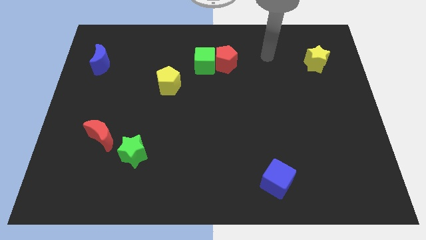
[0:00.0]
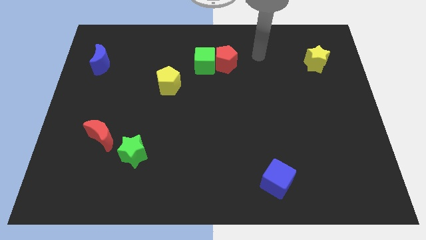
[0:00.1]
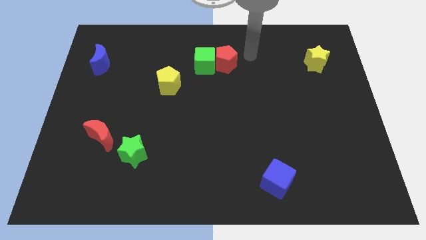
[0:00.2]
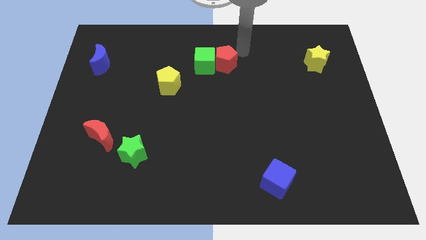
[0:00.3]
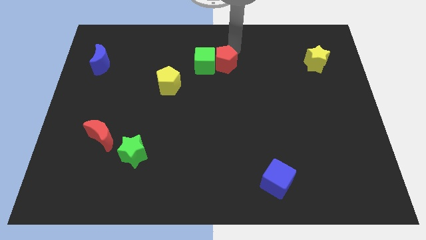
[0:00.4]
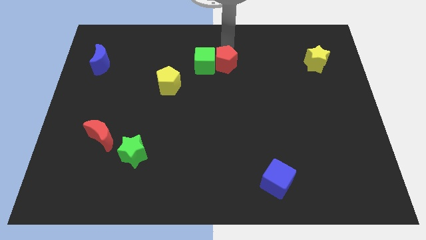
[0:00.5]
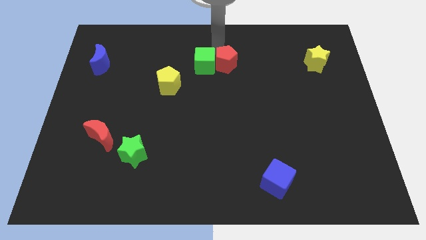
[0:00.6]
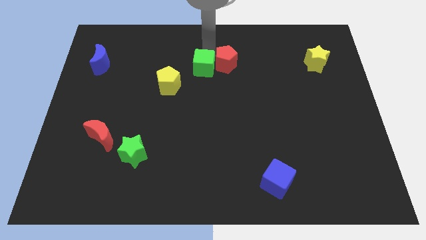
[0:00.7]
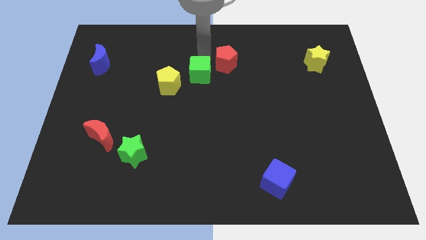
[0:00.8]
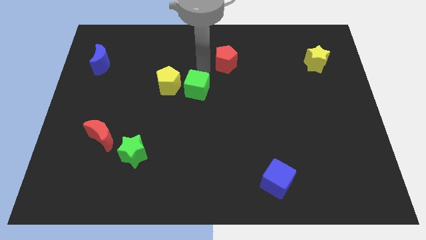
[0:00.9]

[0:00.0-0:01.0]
separate the red pentagon from the green cube

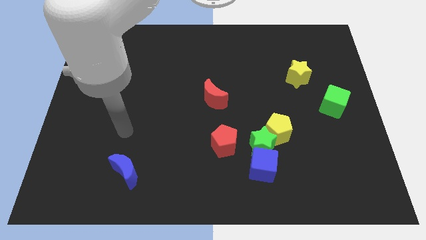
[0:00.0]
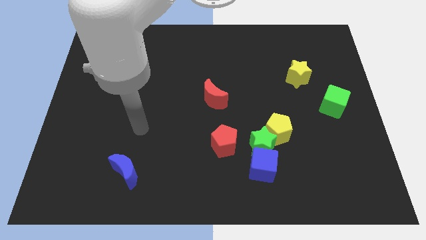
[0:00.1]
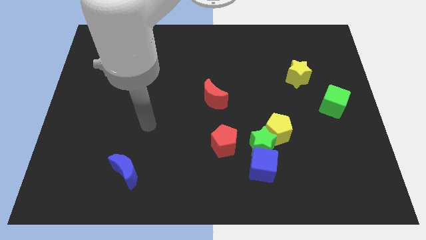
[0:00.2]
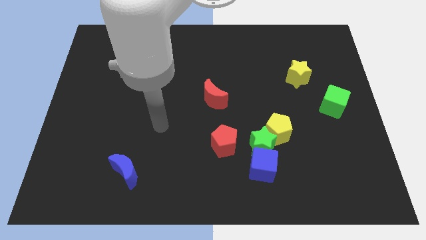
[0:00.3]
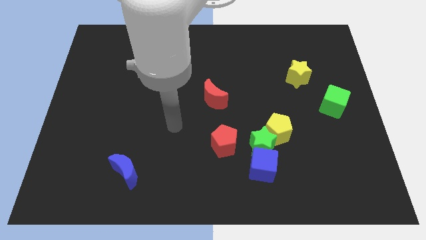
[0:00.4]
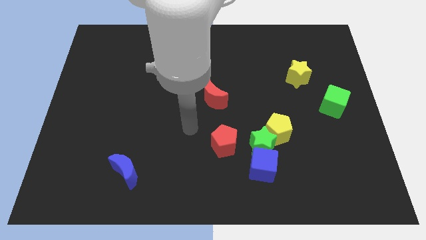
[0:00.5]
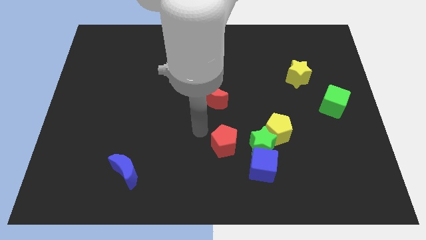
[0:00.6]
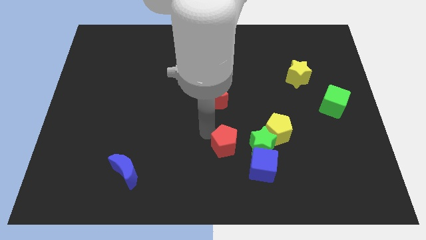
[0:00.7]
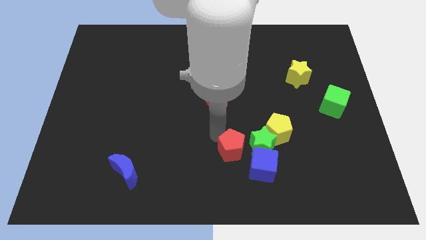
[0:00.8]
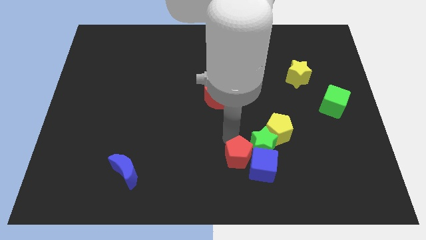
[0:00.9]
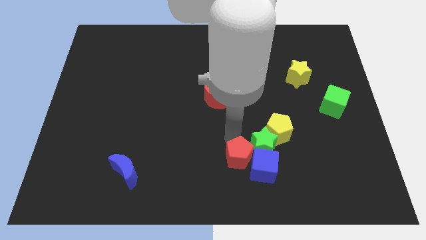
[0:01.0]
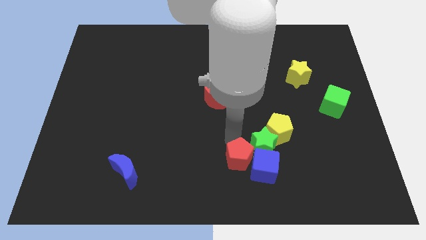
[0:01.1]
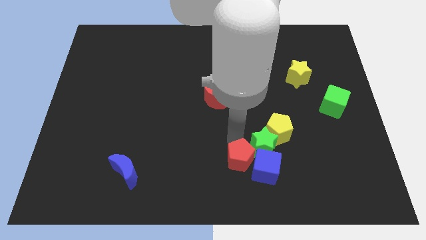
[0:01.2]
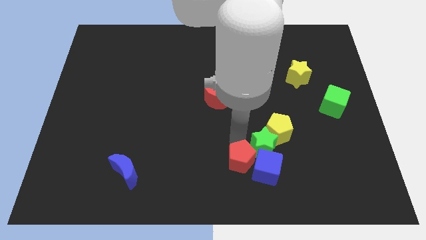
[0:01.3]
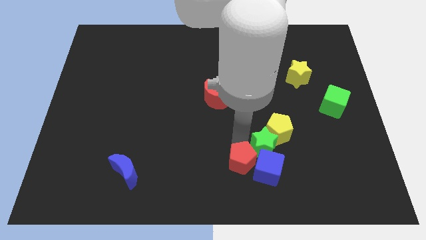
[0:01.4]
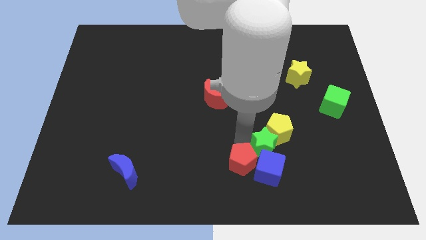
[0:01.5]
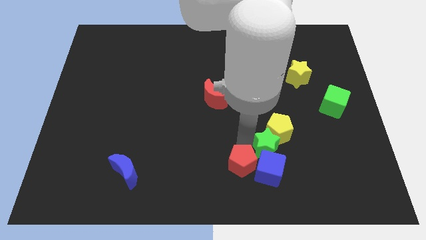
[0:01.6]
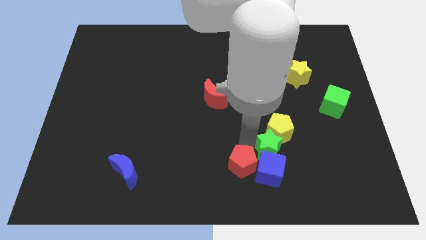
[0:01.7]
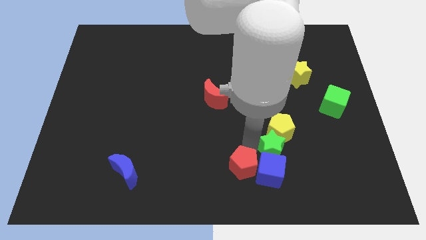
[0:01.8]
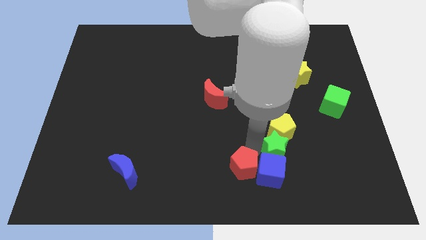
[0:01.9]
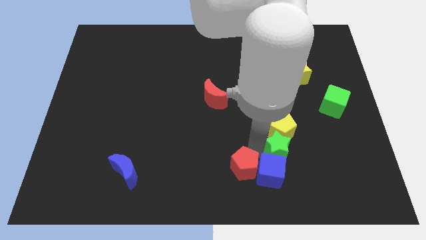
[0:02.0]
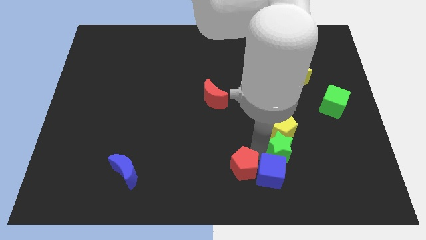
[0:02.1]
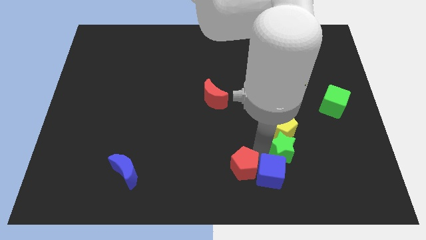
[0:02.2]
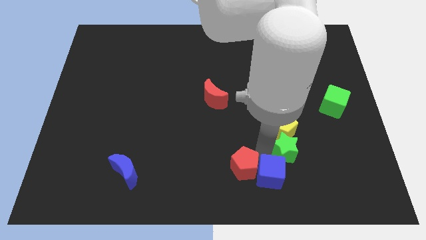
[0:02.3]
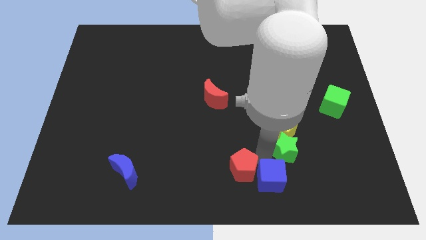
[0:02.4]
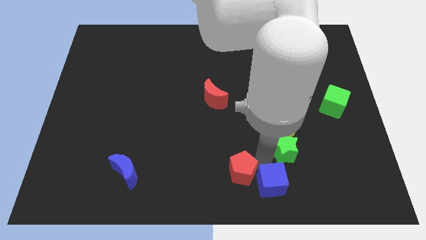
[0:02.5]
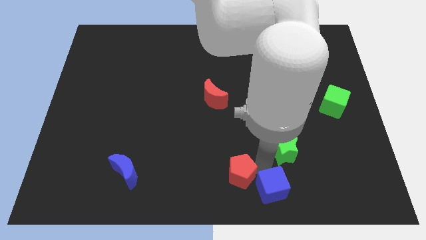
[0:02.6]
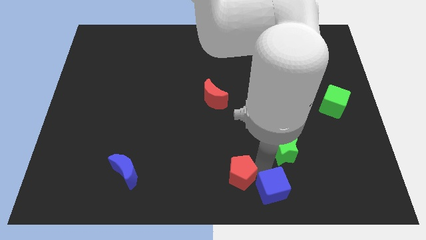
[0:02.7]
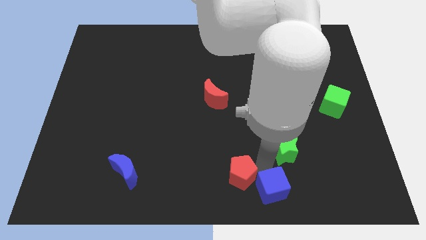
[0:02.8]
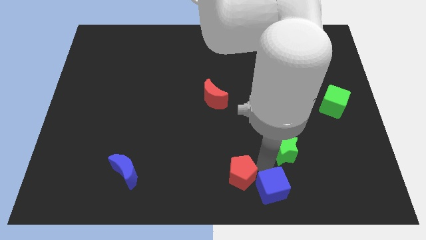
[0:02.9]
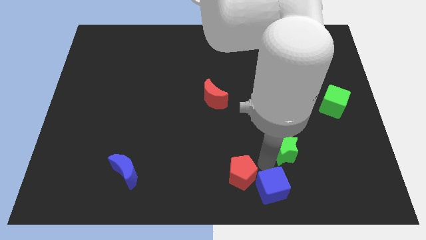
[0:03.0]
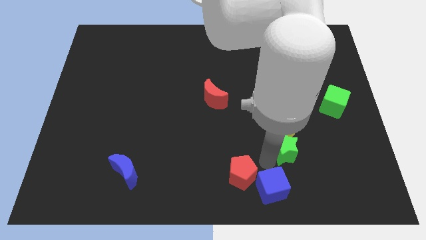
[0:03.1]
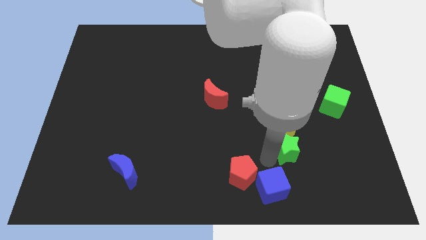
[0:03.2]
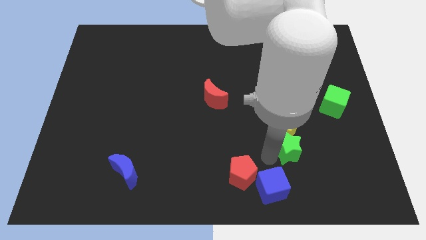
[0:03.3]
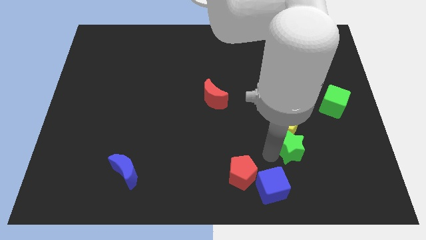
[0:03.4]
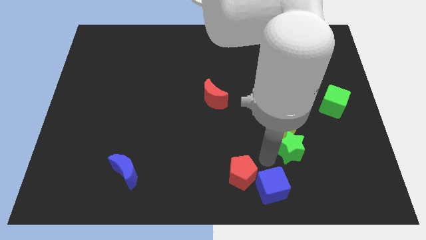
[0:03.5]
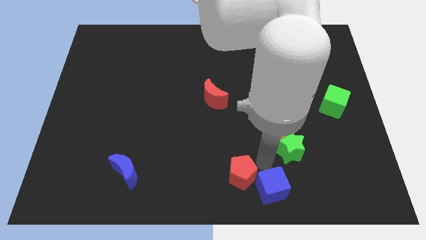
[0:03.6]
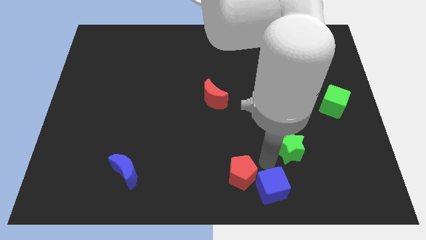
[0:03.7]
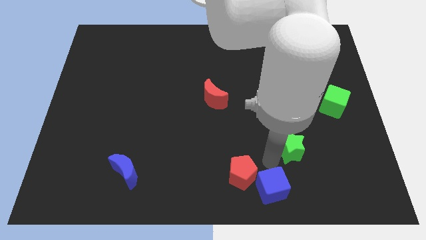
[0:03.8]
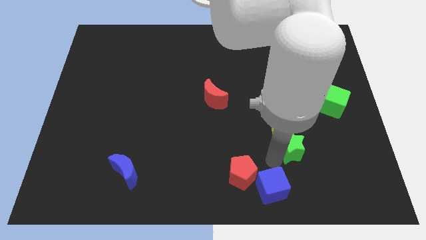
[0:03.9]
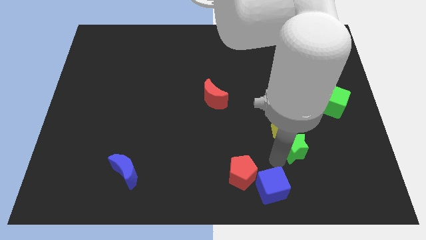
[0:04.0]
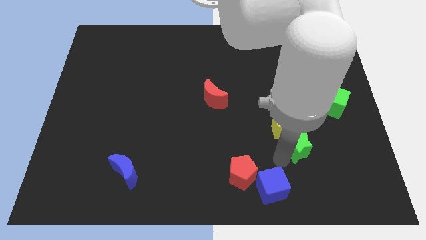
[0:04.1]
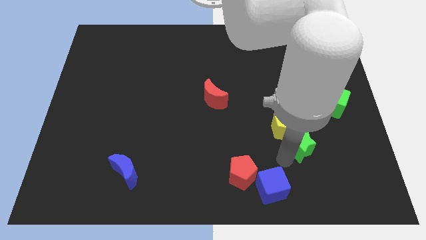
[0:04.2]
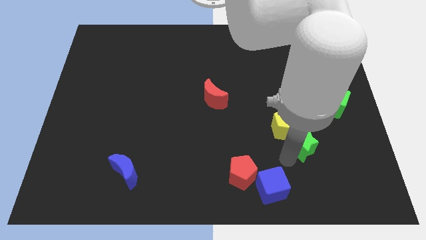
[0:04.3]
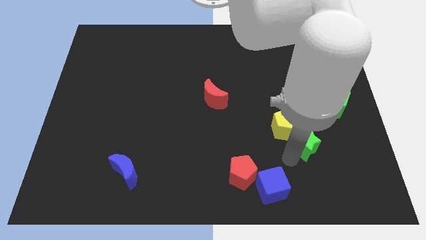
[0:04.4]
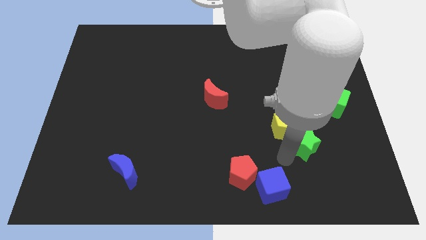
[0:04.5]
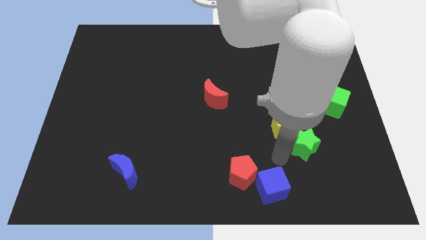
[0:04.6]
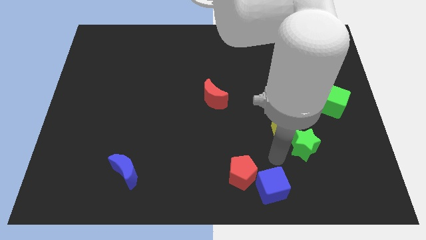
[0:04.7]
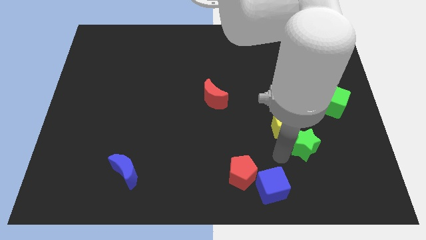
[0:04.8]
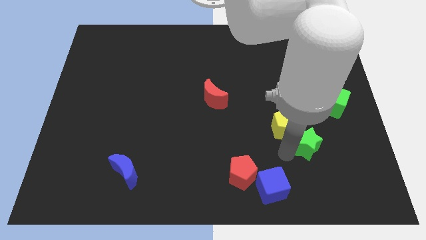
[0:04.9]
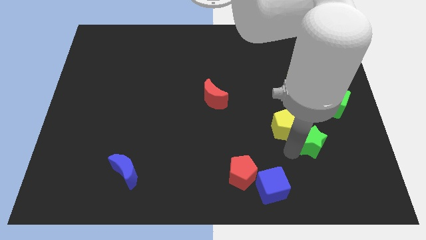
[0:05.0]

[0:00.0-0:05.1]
move the green star away from the yellow pentagon, blue cube, and red pentagon

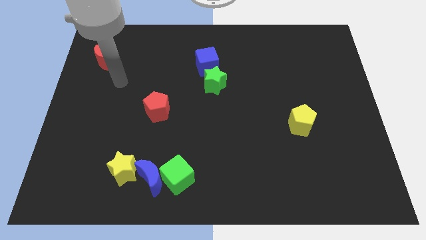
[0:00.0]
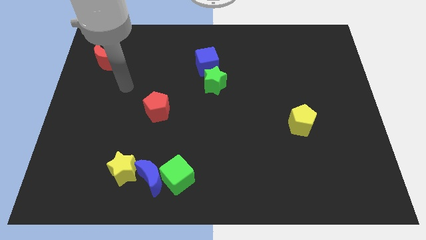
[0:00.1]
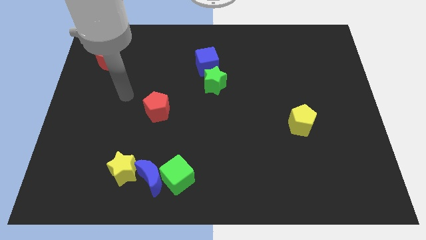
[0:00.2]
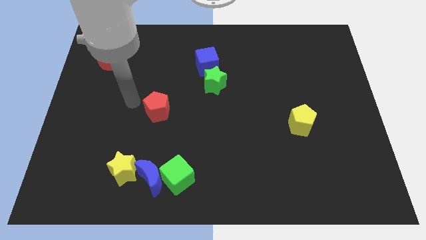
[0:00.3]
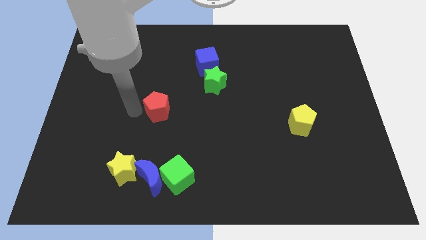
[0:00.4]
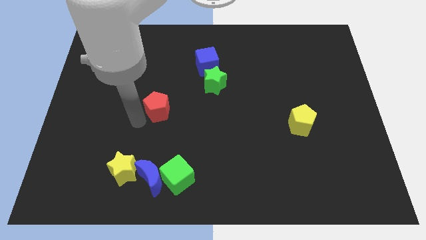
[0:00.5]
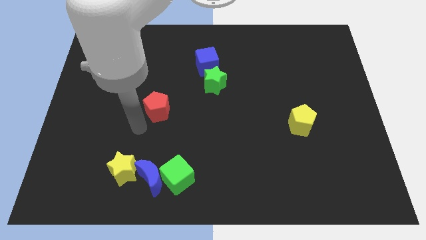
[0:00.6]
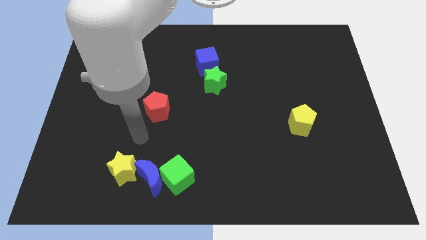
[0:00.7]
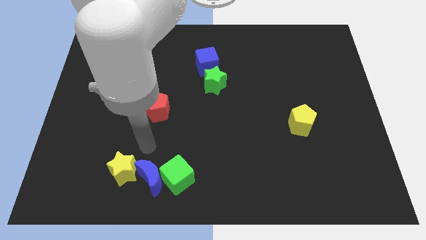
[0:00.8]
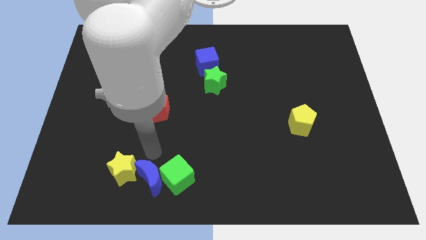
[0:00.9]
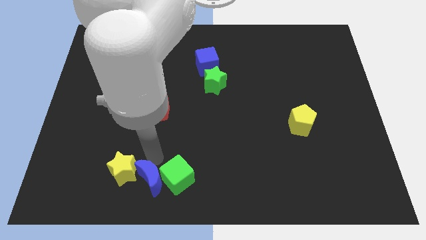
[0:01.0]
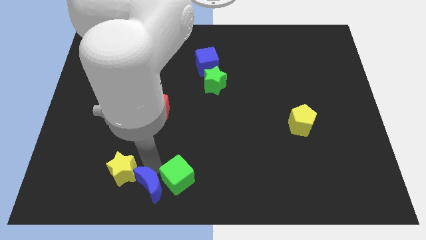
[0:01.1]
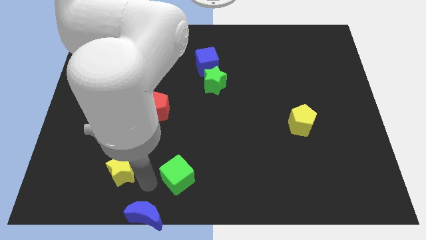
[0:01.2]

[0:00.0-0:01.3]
pull the green cube apart from the blue moon

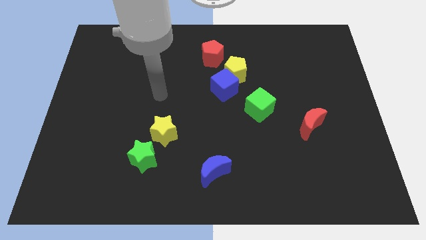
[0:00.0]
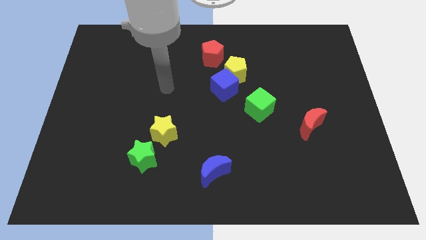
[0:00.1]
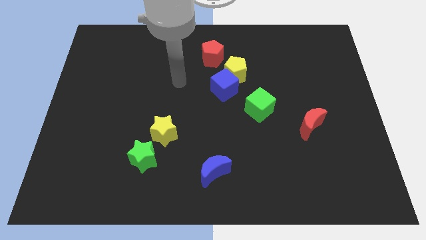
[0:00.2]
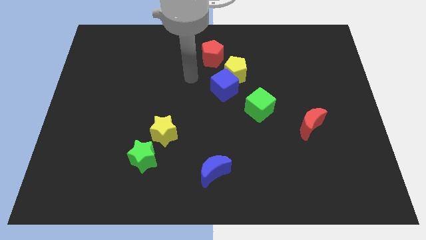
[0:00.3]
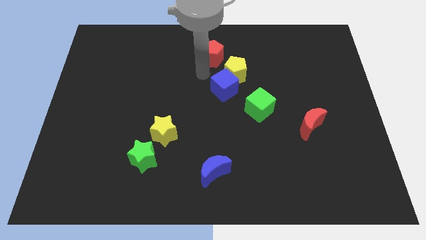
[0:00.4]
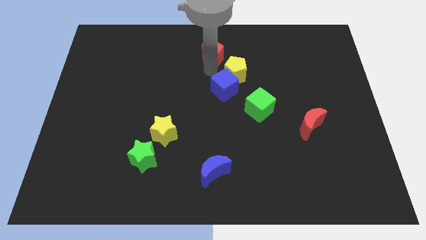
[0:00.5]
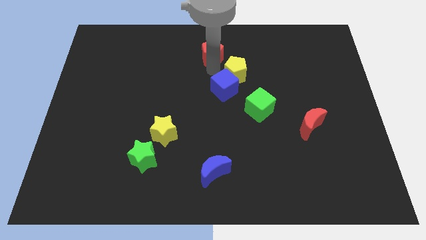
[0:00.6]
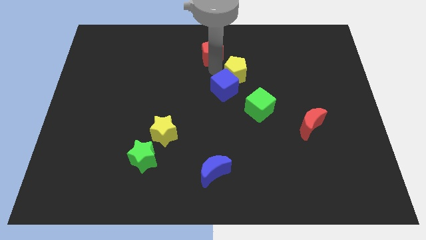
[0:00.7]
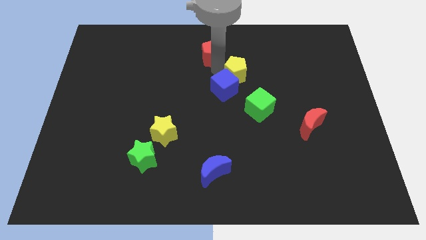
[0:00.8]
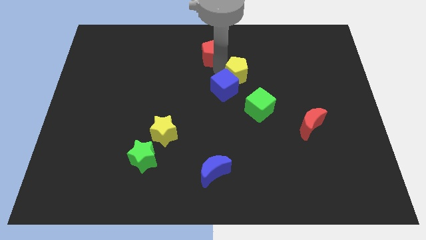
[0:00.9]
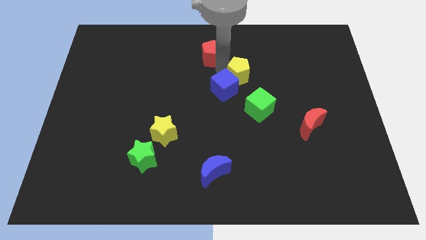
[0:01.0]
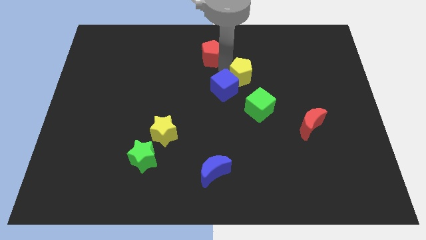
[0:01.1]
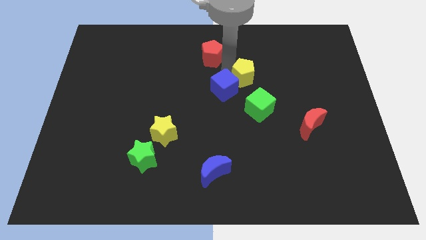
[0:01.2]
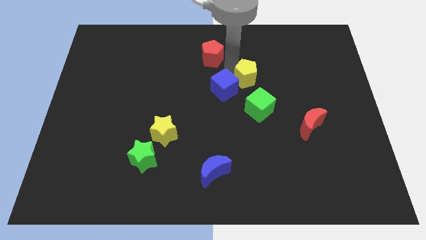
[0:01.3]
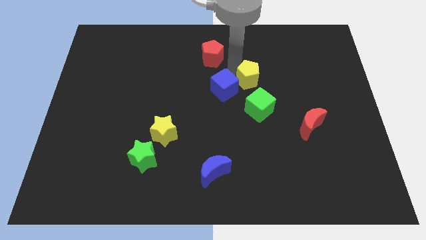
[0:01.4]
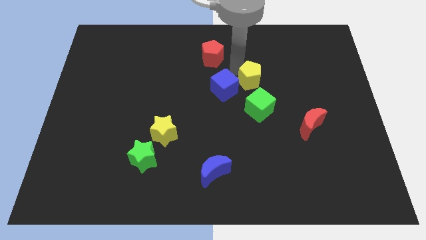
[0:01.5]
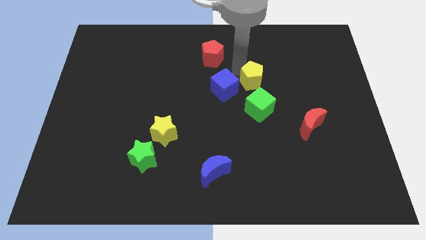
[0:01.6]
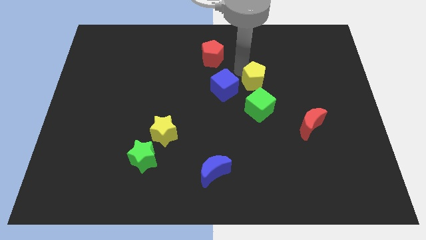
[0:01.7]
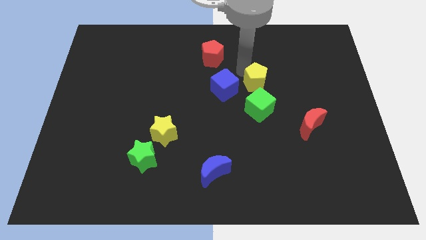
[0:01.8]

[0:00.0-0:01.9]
pull the yellow pentagon apart from the blue cube and red pentagon
